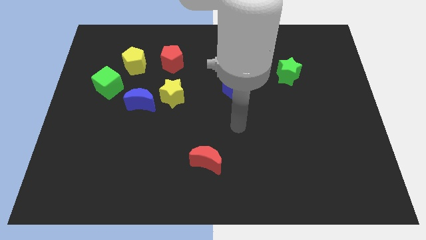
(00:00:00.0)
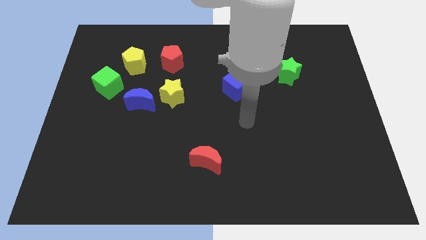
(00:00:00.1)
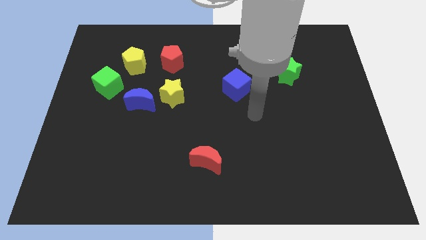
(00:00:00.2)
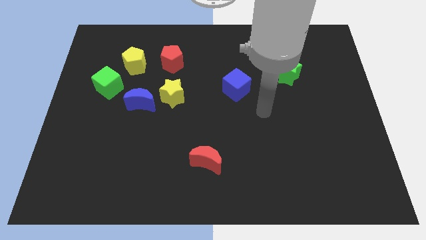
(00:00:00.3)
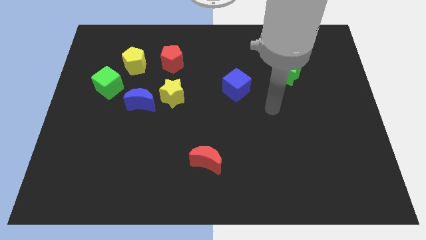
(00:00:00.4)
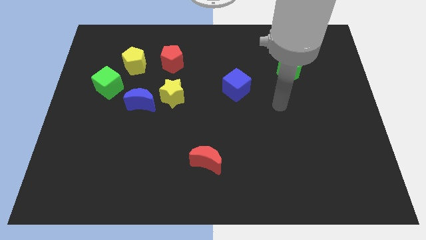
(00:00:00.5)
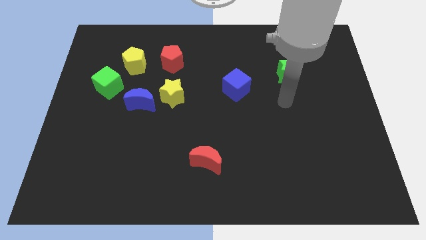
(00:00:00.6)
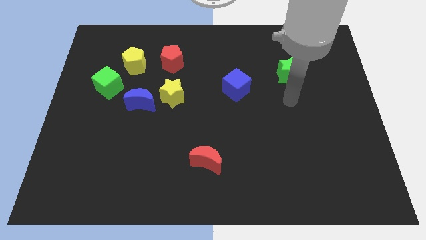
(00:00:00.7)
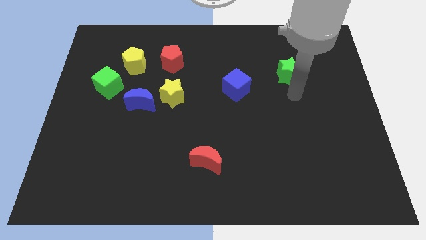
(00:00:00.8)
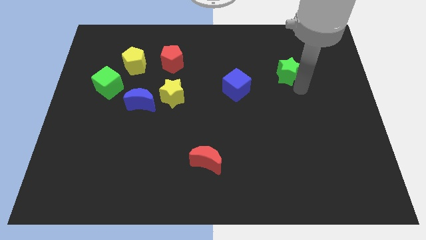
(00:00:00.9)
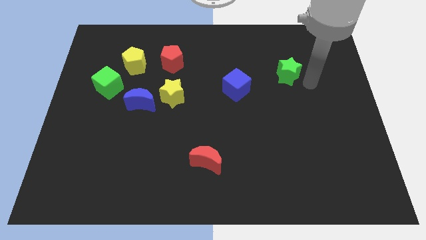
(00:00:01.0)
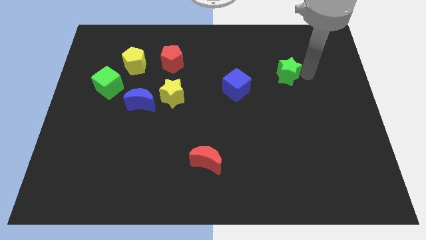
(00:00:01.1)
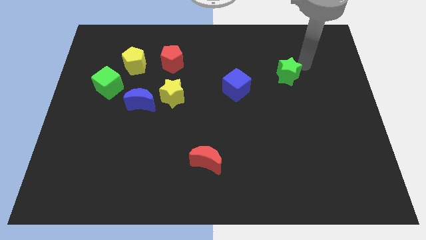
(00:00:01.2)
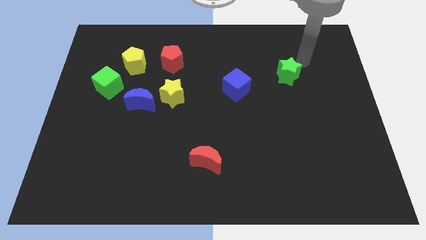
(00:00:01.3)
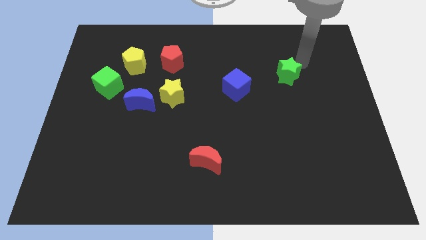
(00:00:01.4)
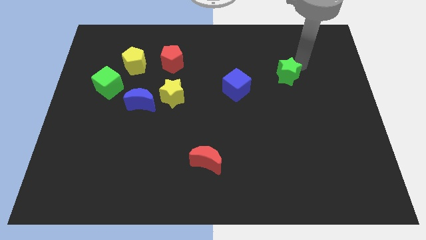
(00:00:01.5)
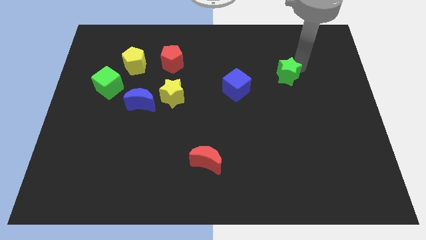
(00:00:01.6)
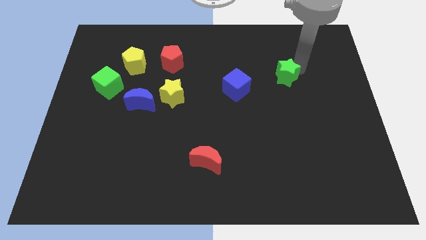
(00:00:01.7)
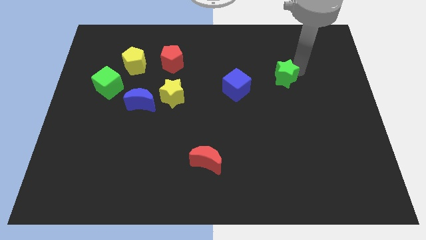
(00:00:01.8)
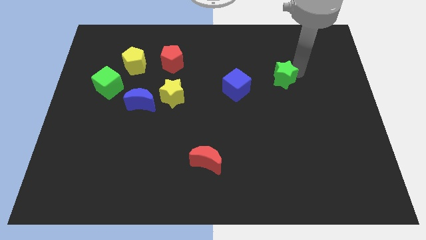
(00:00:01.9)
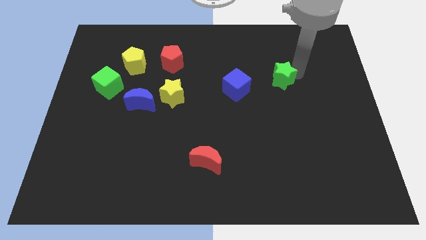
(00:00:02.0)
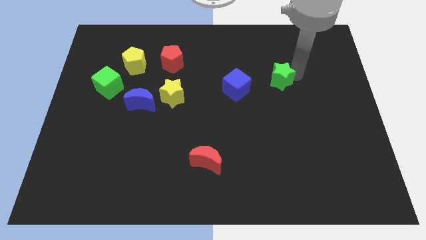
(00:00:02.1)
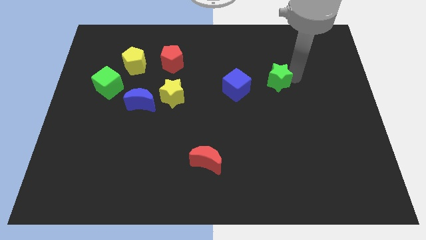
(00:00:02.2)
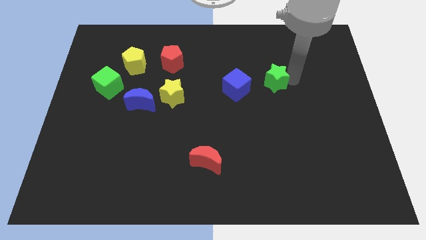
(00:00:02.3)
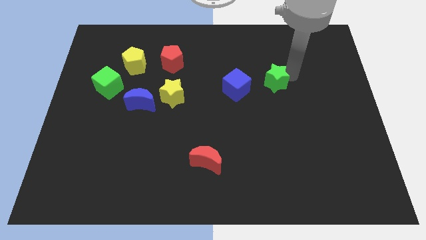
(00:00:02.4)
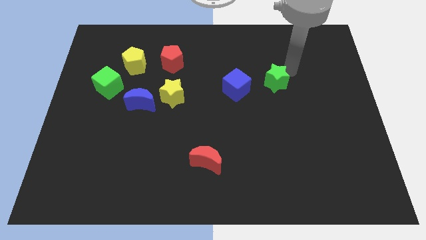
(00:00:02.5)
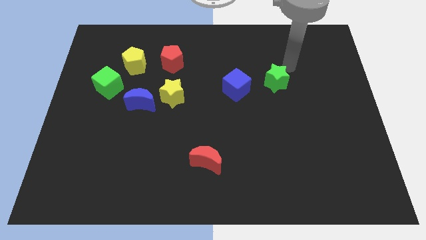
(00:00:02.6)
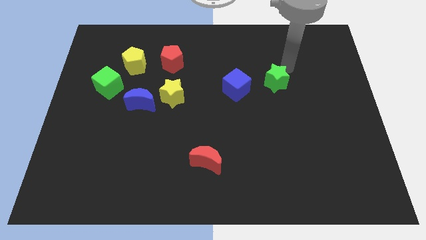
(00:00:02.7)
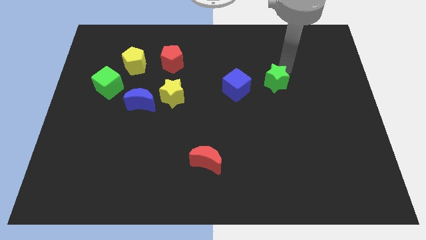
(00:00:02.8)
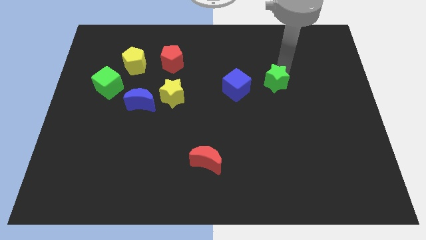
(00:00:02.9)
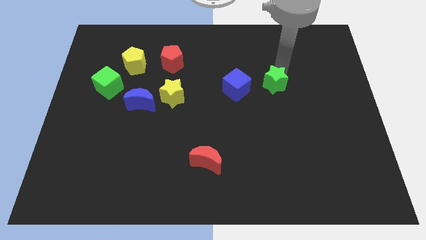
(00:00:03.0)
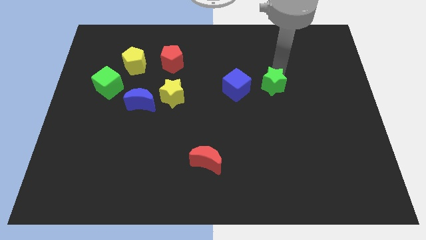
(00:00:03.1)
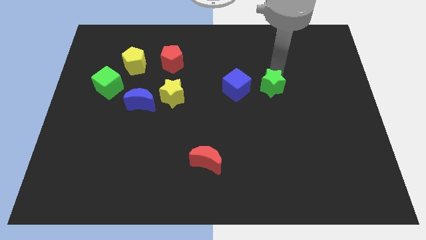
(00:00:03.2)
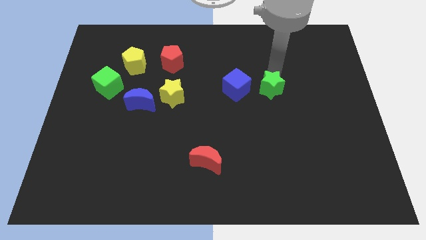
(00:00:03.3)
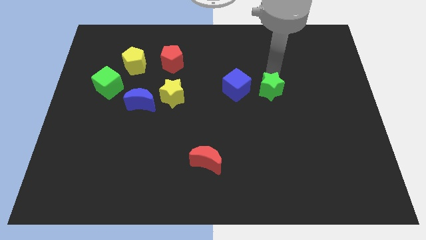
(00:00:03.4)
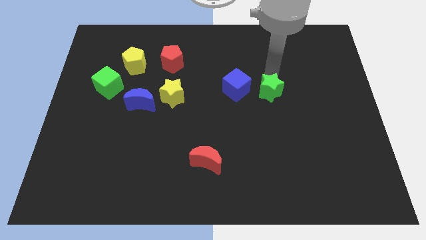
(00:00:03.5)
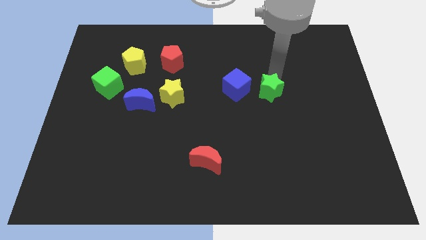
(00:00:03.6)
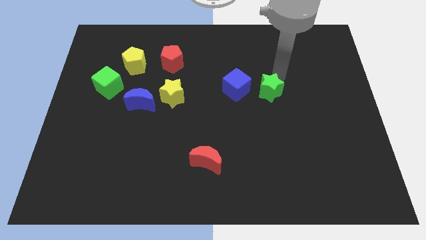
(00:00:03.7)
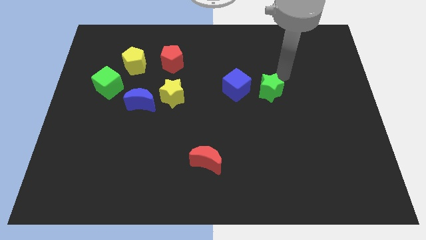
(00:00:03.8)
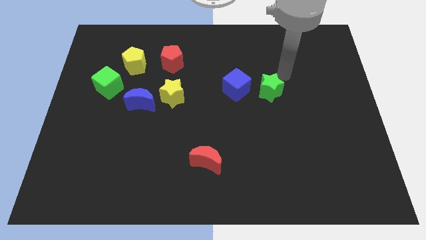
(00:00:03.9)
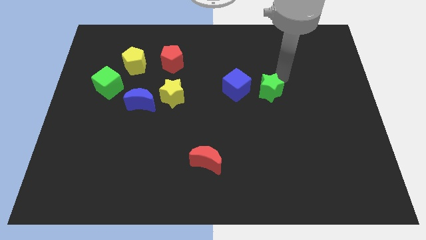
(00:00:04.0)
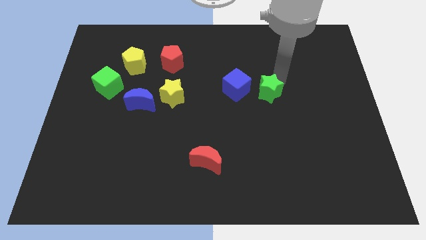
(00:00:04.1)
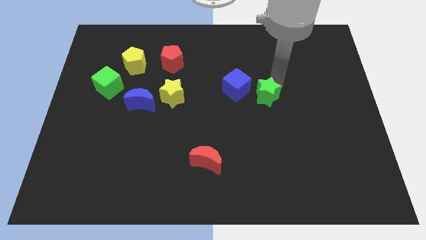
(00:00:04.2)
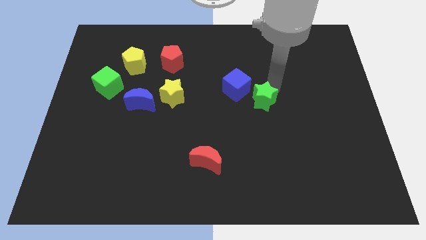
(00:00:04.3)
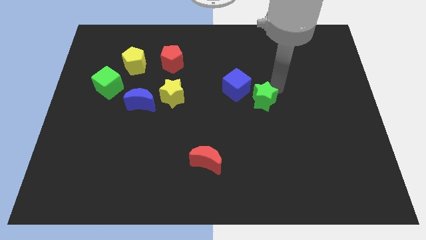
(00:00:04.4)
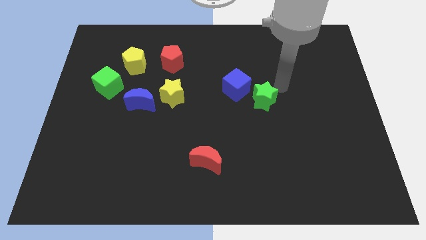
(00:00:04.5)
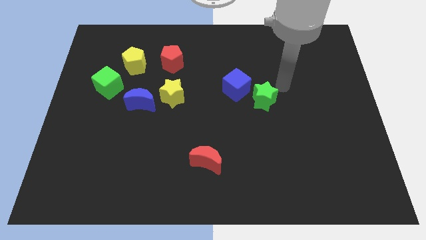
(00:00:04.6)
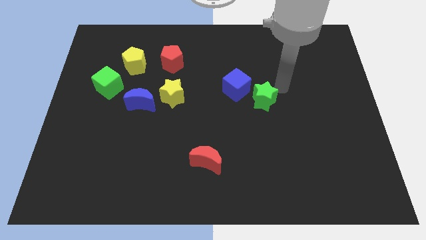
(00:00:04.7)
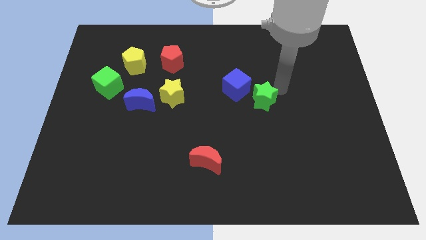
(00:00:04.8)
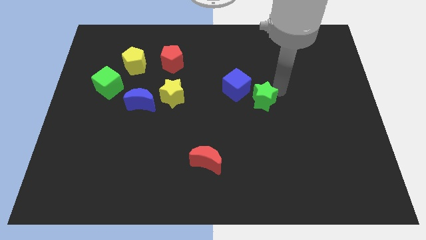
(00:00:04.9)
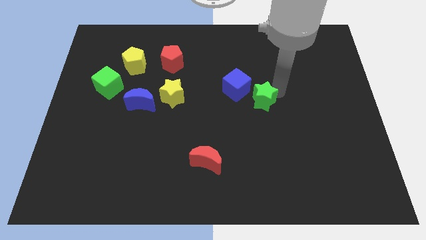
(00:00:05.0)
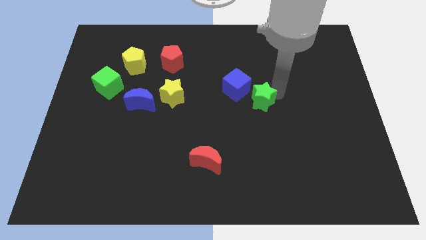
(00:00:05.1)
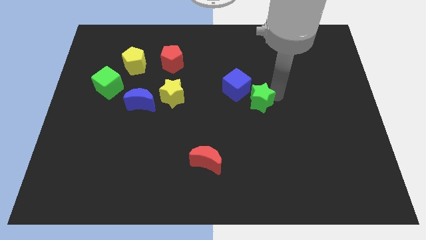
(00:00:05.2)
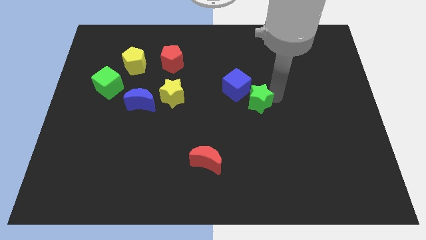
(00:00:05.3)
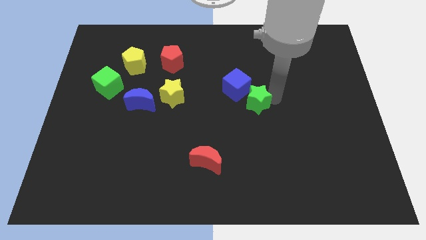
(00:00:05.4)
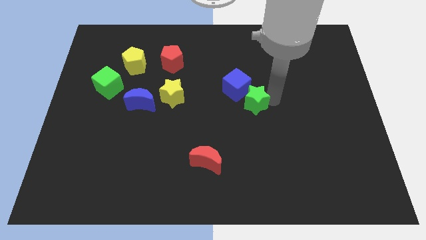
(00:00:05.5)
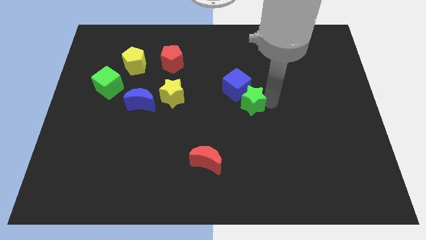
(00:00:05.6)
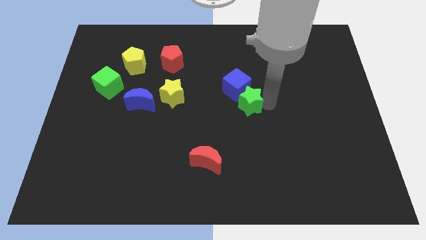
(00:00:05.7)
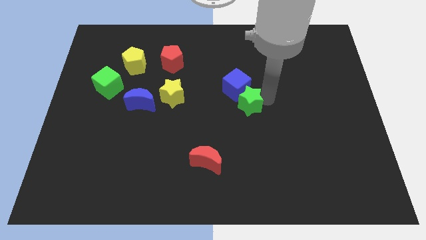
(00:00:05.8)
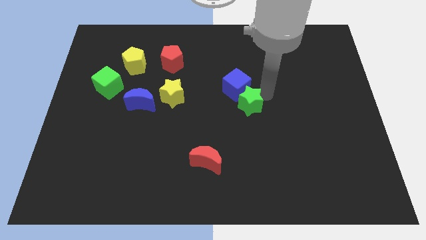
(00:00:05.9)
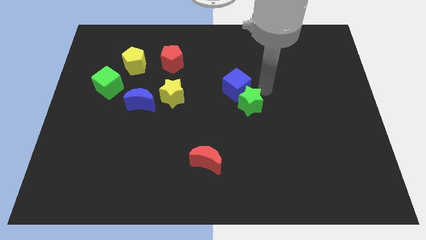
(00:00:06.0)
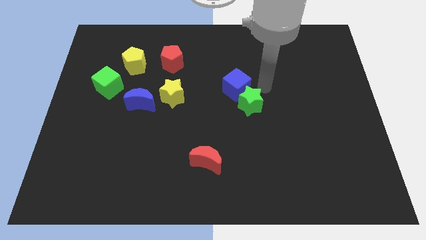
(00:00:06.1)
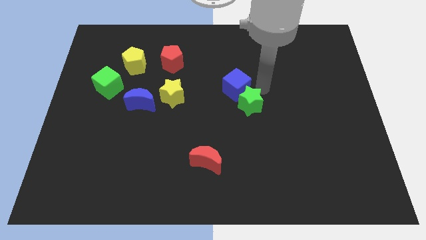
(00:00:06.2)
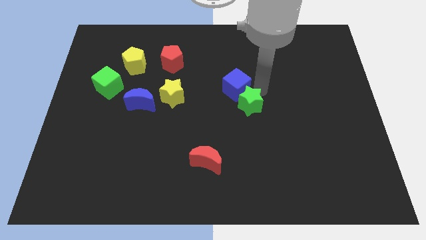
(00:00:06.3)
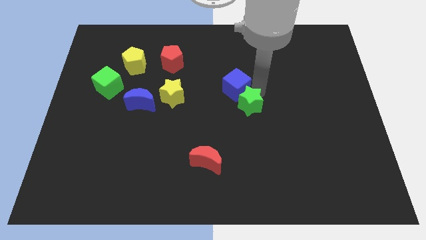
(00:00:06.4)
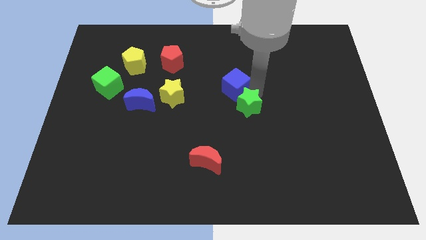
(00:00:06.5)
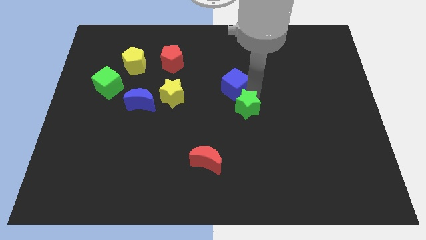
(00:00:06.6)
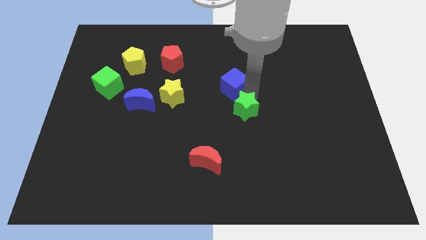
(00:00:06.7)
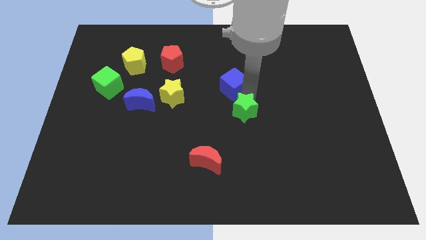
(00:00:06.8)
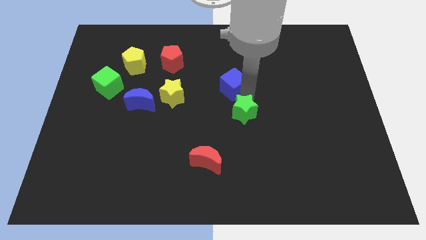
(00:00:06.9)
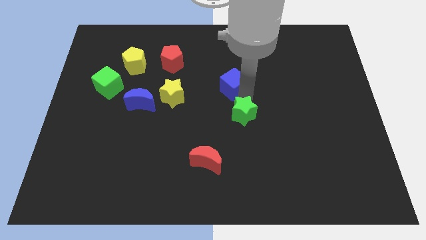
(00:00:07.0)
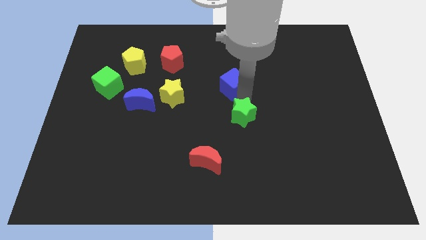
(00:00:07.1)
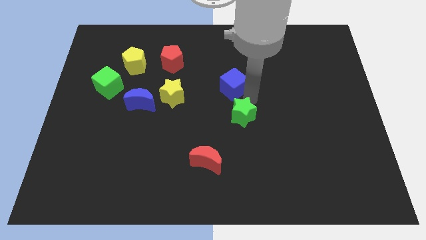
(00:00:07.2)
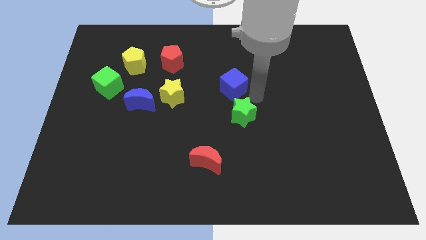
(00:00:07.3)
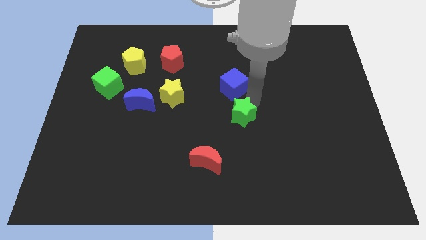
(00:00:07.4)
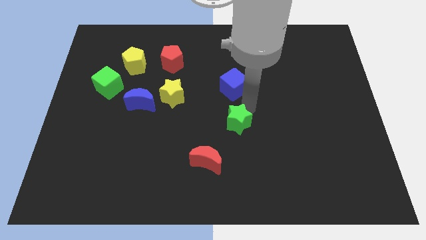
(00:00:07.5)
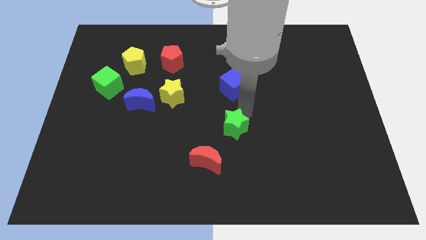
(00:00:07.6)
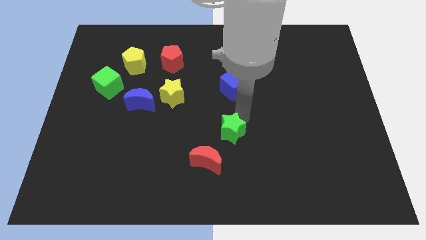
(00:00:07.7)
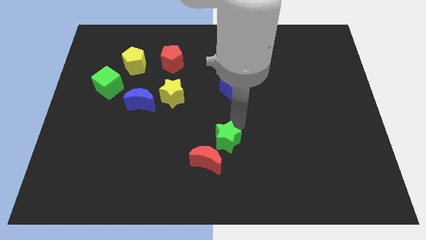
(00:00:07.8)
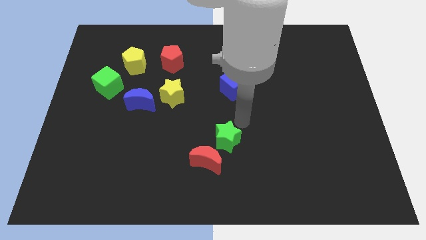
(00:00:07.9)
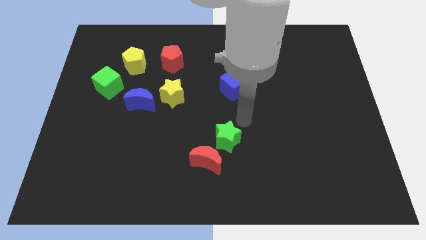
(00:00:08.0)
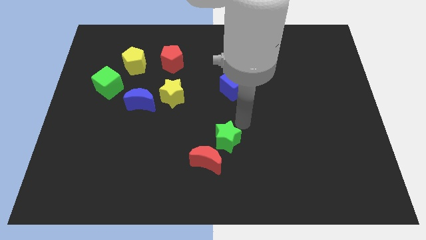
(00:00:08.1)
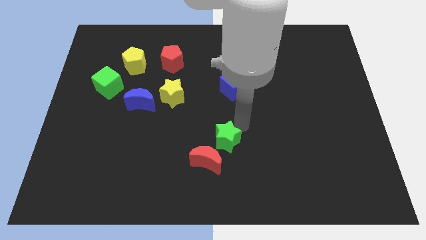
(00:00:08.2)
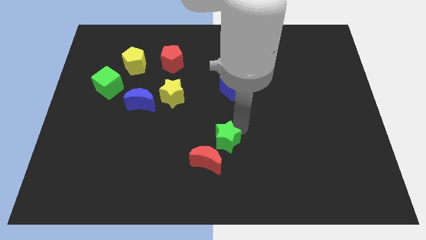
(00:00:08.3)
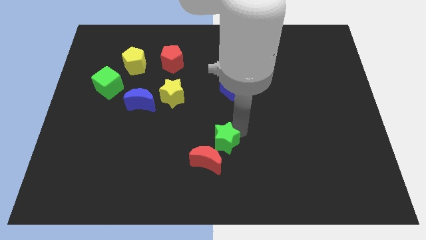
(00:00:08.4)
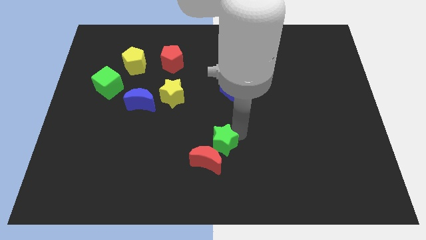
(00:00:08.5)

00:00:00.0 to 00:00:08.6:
put the green star to the red moon
